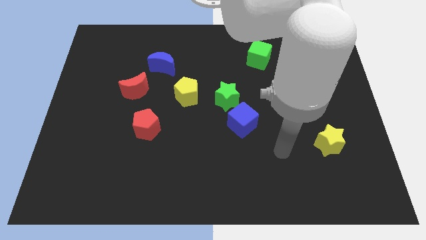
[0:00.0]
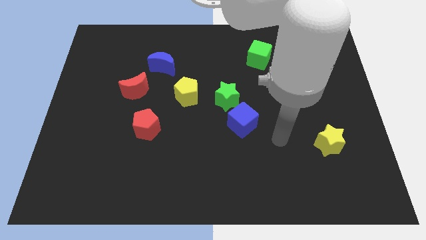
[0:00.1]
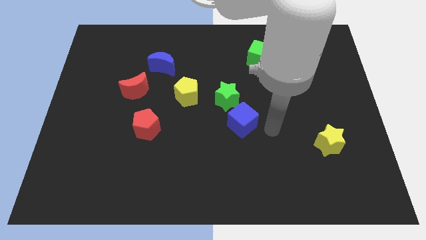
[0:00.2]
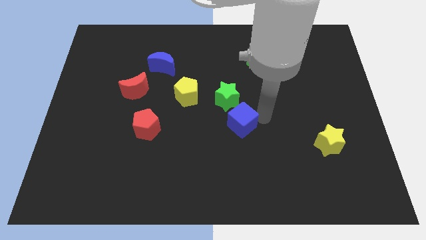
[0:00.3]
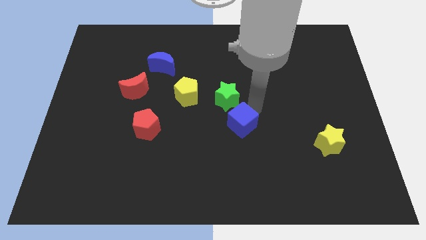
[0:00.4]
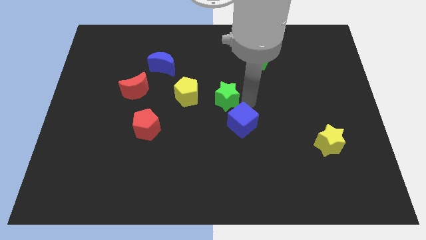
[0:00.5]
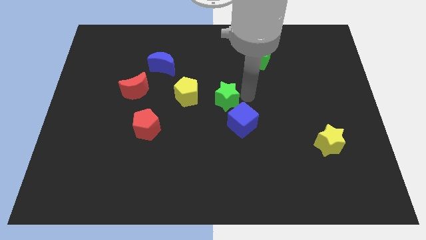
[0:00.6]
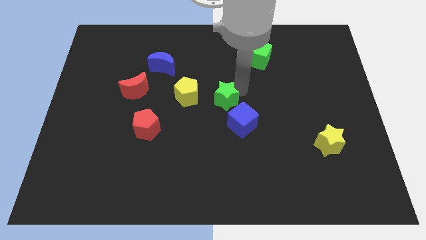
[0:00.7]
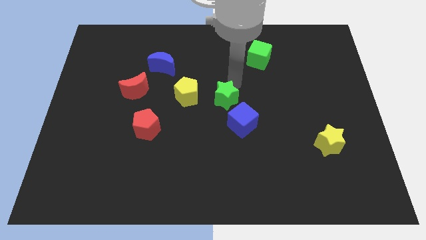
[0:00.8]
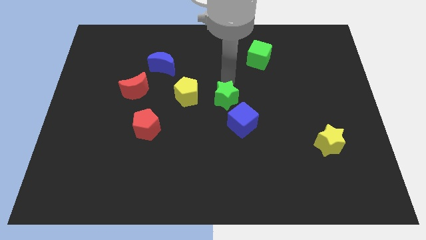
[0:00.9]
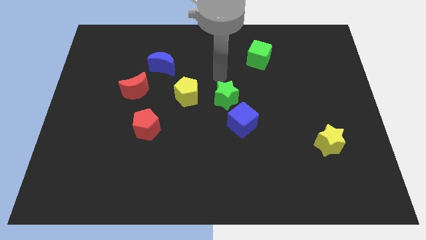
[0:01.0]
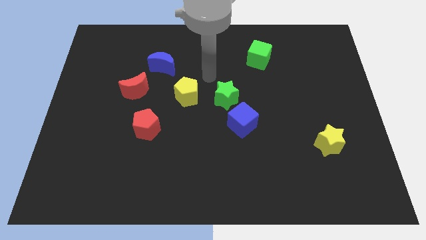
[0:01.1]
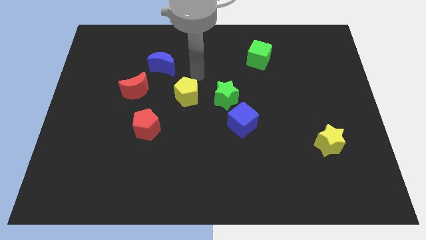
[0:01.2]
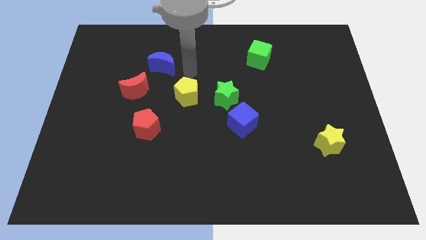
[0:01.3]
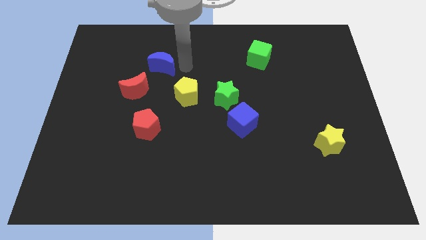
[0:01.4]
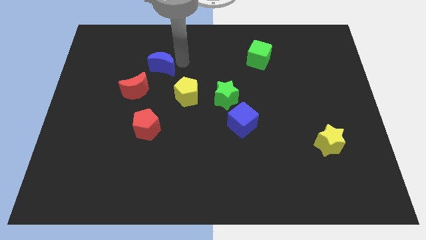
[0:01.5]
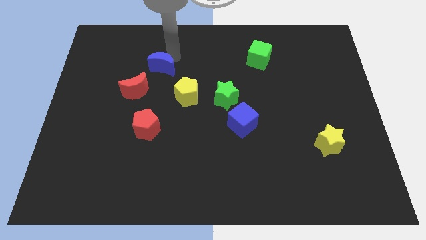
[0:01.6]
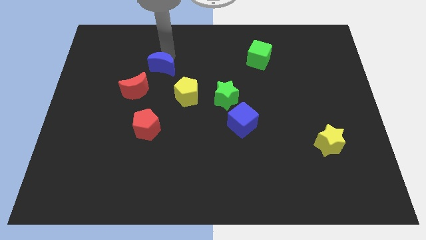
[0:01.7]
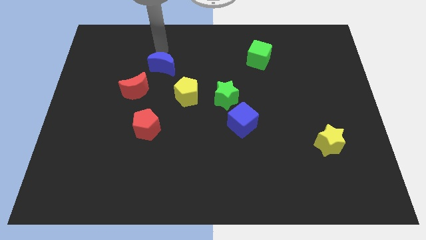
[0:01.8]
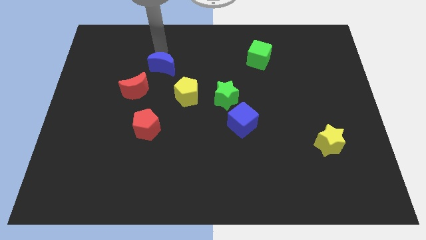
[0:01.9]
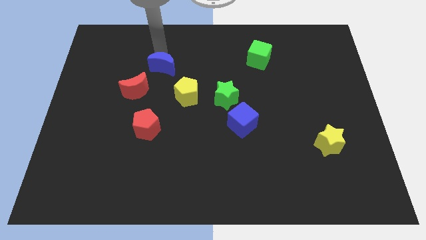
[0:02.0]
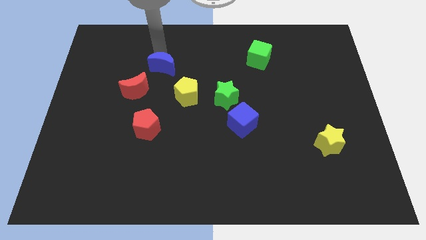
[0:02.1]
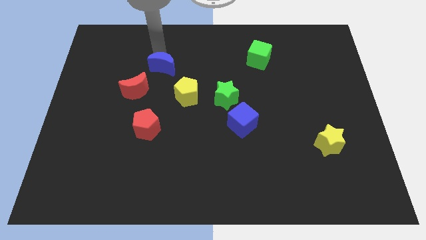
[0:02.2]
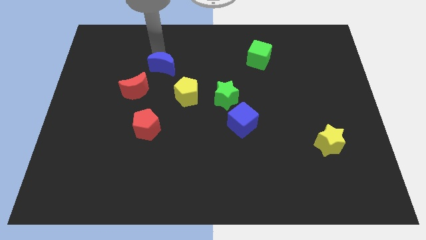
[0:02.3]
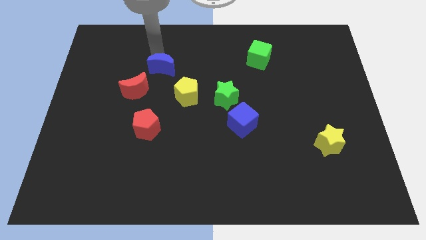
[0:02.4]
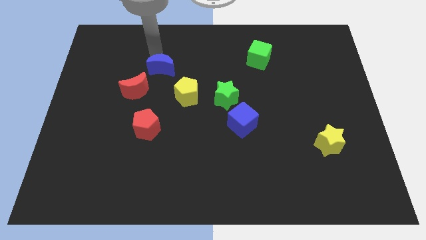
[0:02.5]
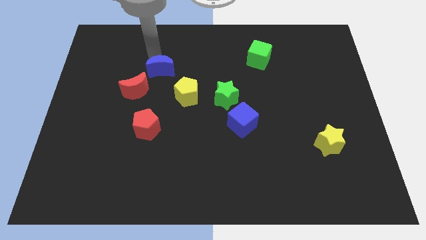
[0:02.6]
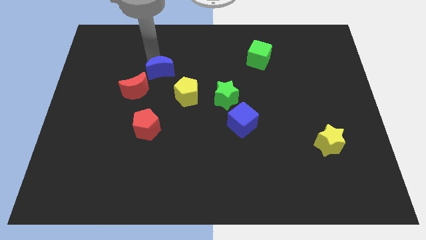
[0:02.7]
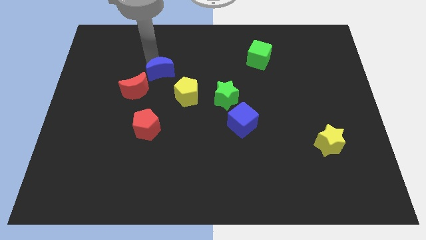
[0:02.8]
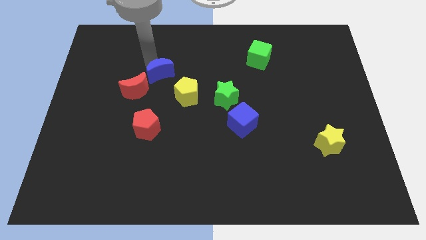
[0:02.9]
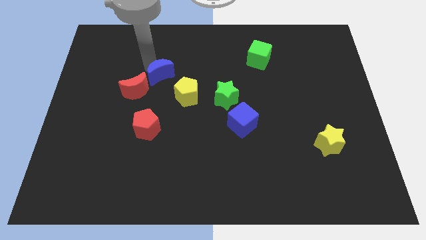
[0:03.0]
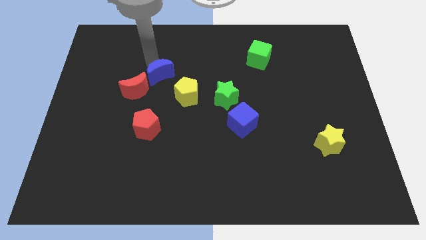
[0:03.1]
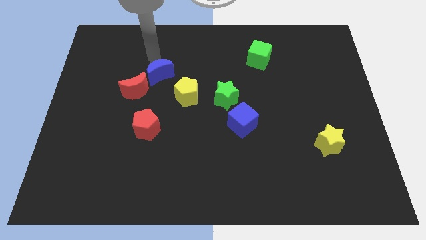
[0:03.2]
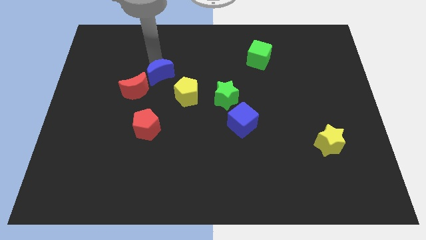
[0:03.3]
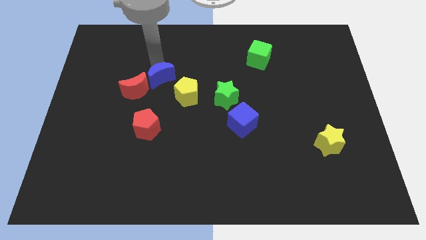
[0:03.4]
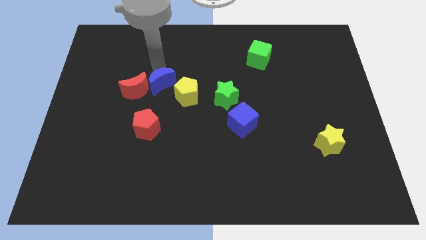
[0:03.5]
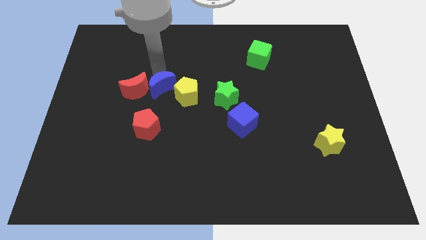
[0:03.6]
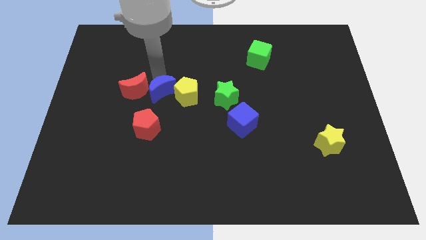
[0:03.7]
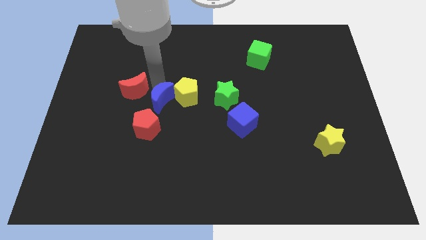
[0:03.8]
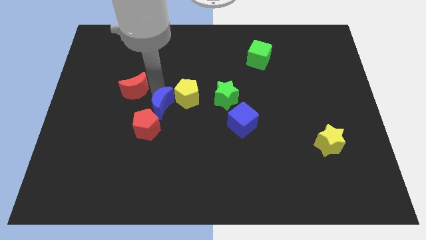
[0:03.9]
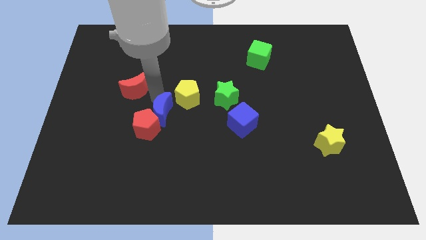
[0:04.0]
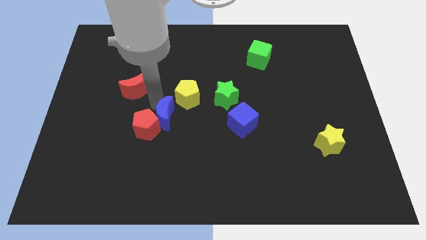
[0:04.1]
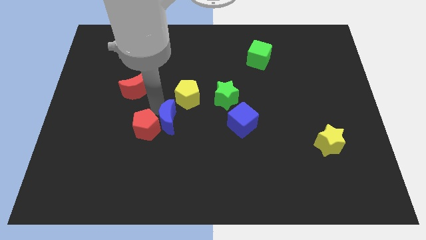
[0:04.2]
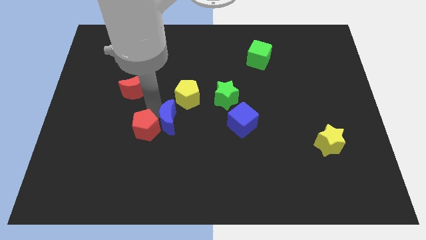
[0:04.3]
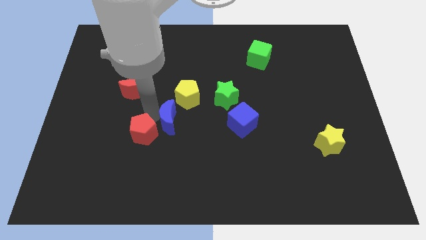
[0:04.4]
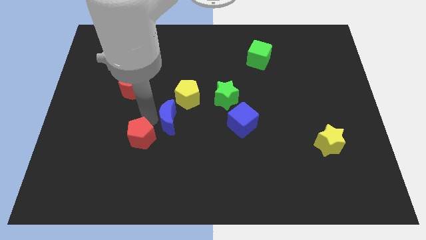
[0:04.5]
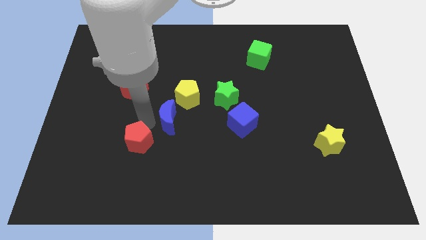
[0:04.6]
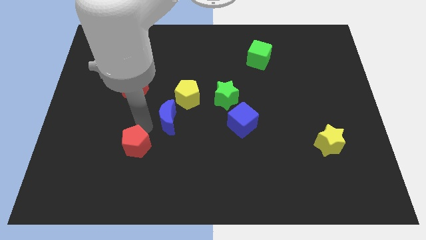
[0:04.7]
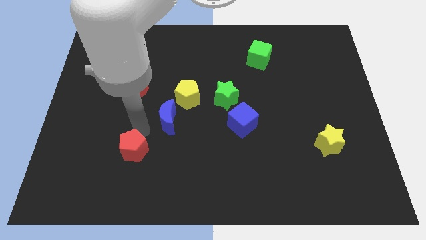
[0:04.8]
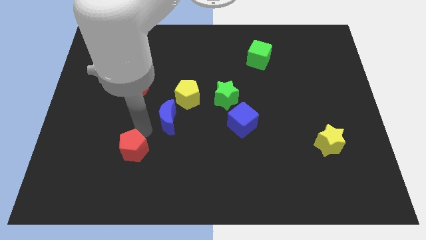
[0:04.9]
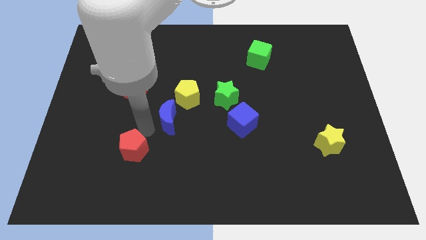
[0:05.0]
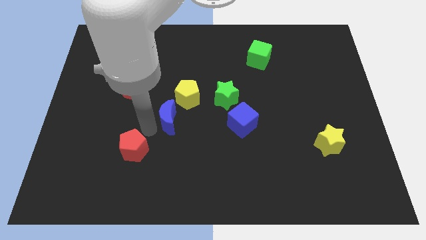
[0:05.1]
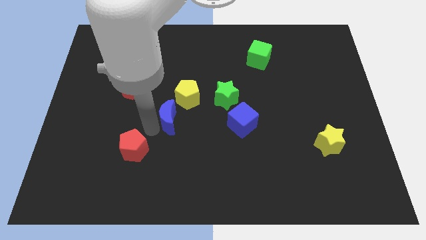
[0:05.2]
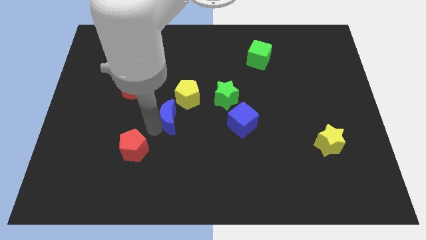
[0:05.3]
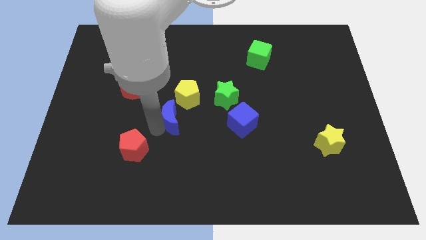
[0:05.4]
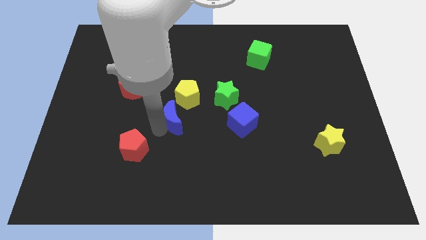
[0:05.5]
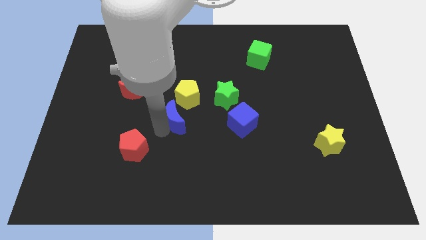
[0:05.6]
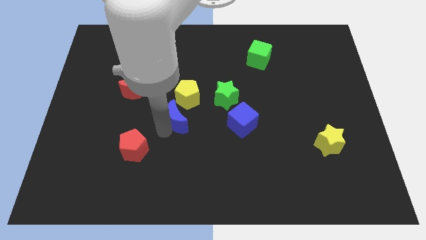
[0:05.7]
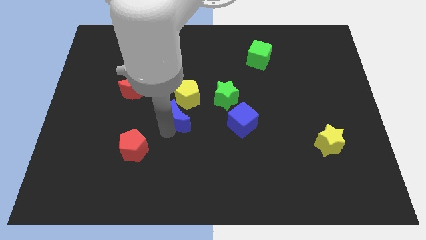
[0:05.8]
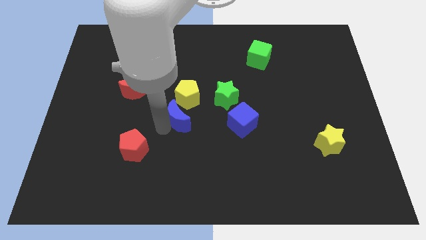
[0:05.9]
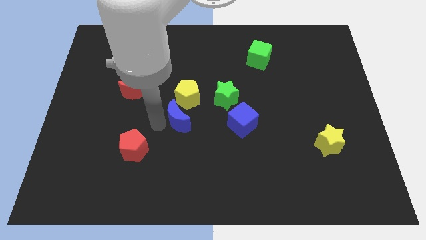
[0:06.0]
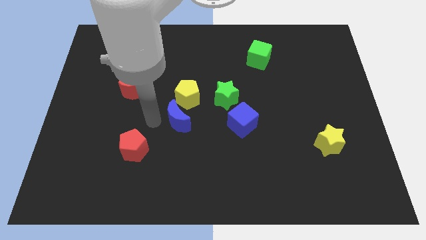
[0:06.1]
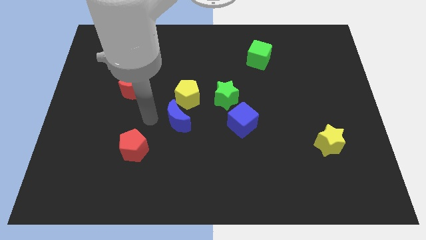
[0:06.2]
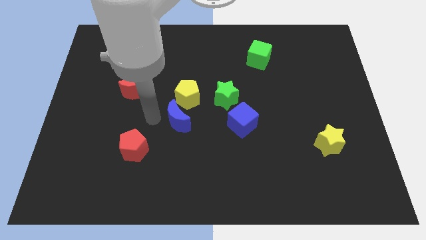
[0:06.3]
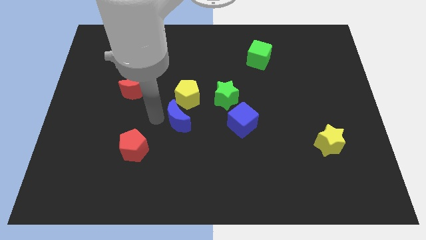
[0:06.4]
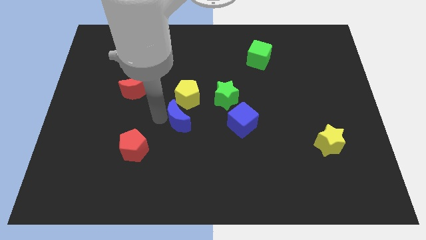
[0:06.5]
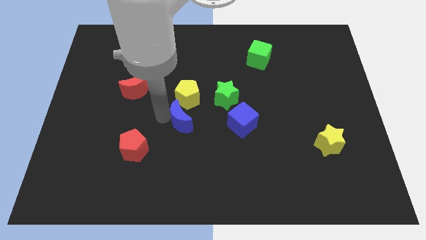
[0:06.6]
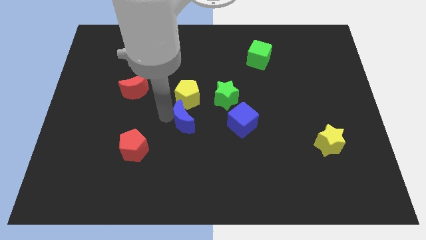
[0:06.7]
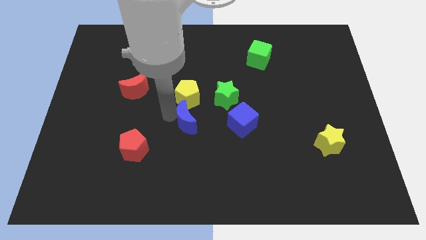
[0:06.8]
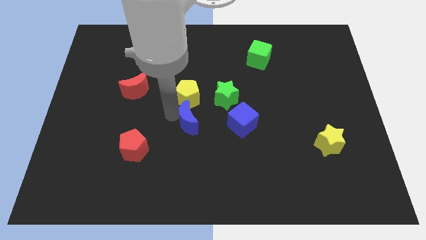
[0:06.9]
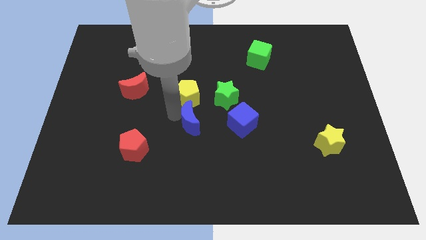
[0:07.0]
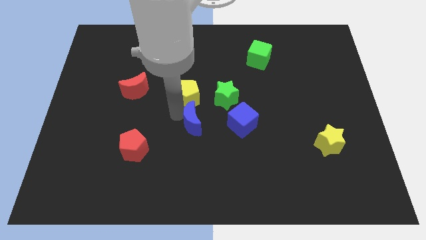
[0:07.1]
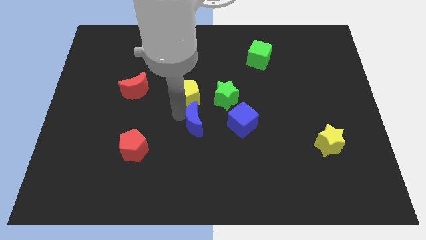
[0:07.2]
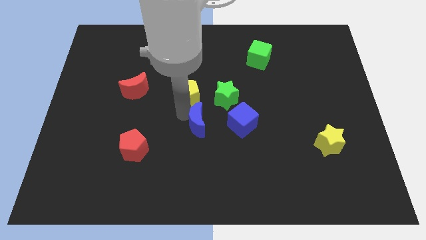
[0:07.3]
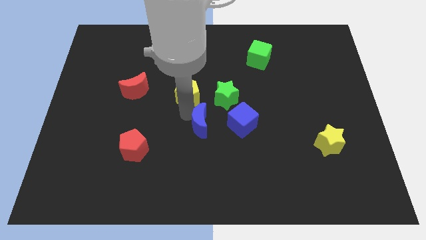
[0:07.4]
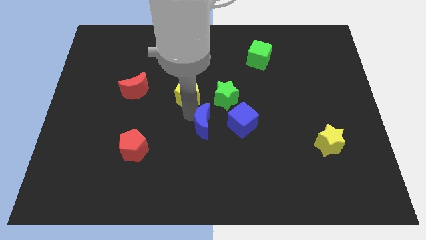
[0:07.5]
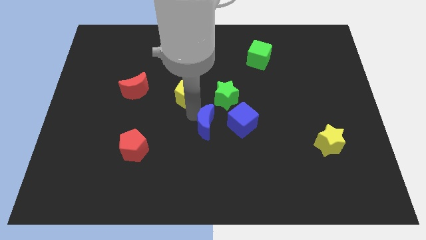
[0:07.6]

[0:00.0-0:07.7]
push the blue moon to the bottom of the green star
